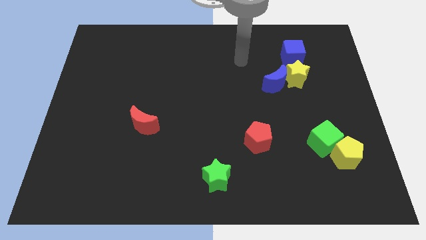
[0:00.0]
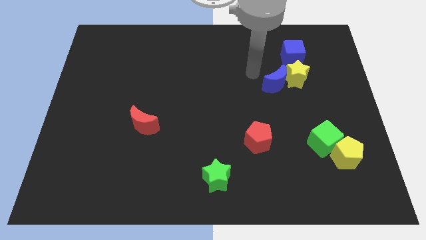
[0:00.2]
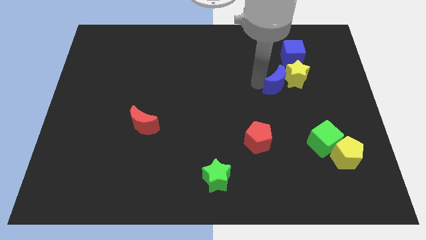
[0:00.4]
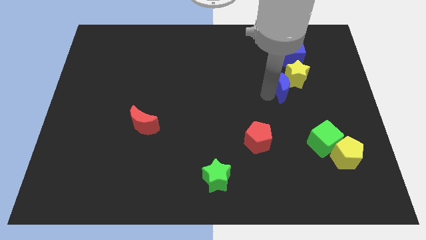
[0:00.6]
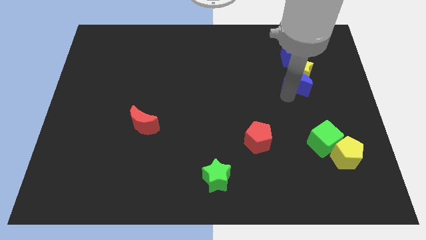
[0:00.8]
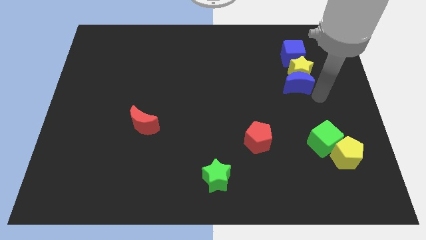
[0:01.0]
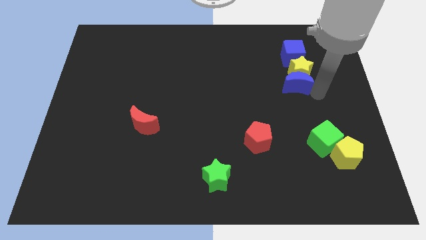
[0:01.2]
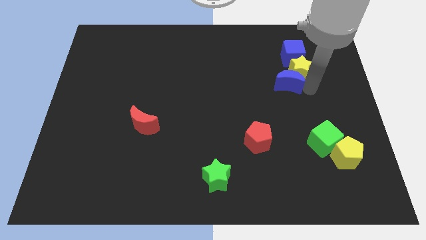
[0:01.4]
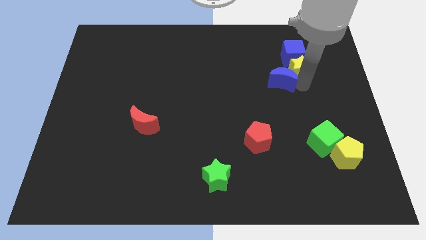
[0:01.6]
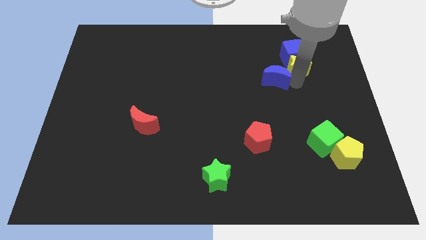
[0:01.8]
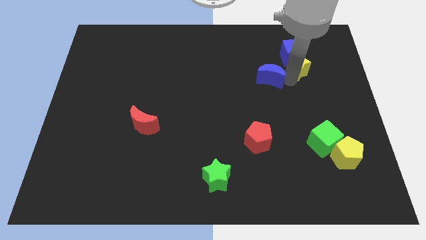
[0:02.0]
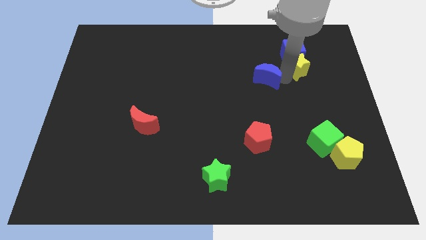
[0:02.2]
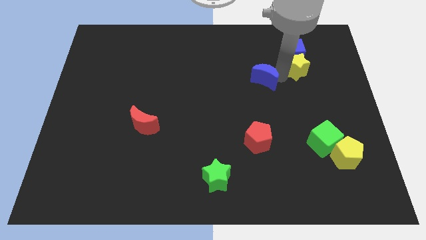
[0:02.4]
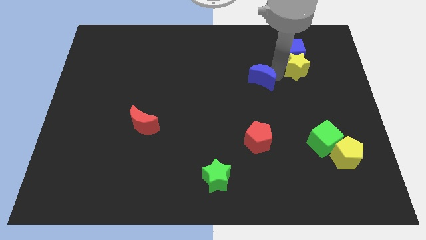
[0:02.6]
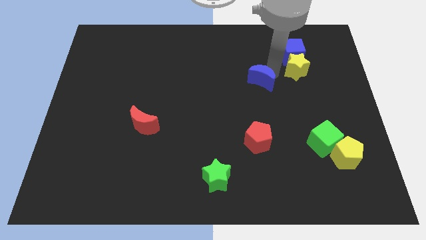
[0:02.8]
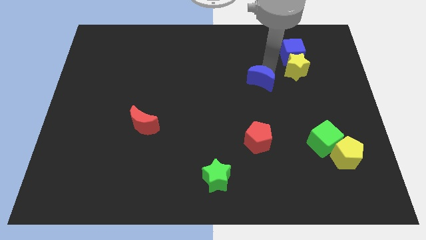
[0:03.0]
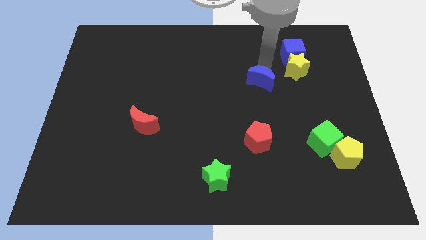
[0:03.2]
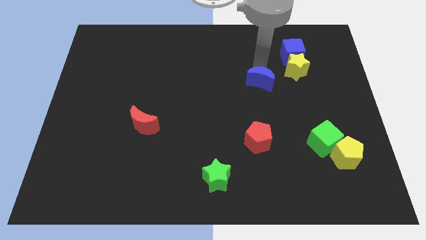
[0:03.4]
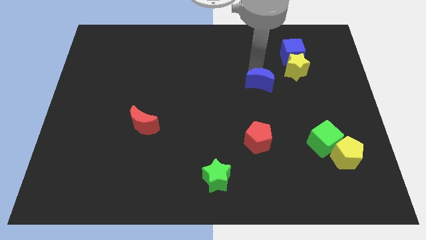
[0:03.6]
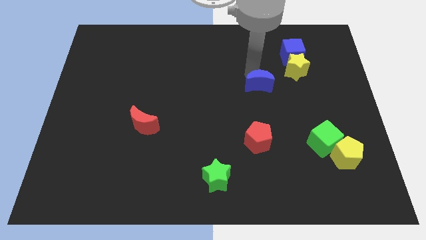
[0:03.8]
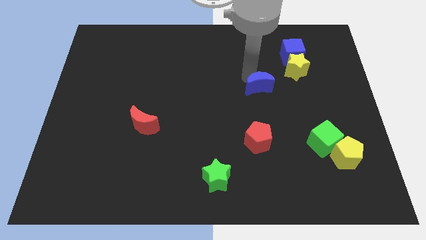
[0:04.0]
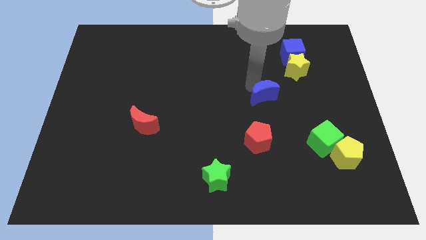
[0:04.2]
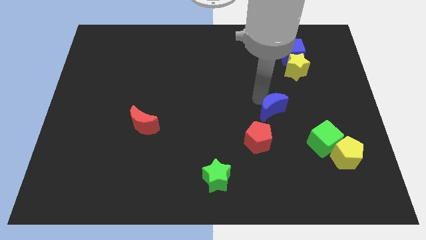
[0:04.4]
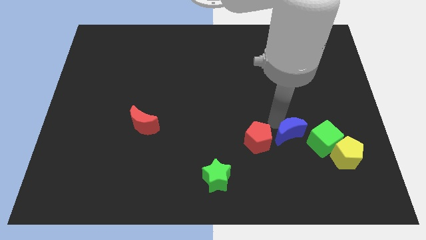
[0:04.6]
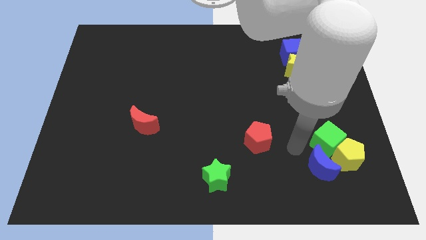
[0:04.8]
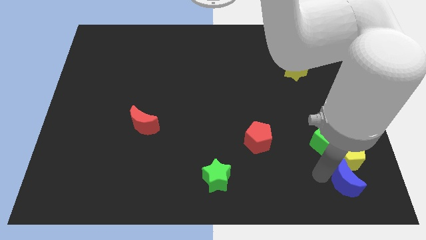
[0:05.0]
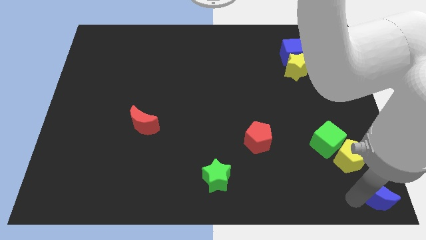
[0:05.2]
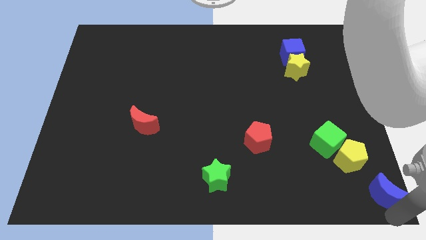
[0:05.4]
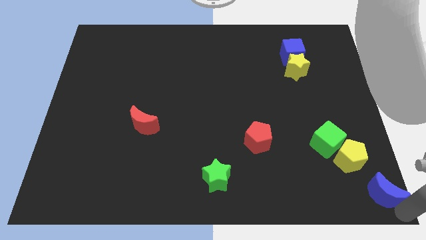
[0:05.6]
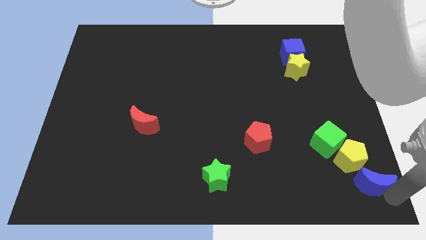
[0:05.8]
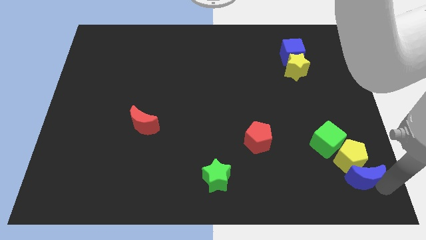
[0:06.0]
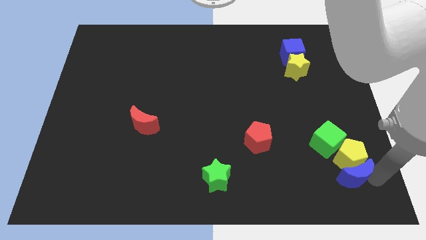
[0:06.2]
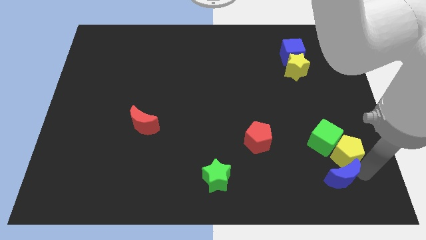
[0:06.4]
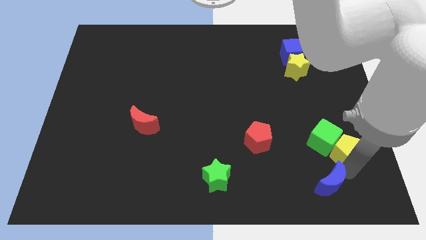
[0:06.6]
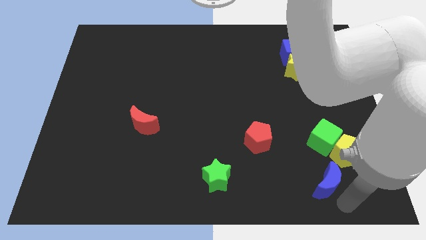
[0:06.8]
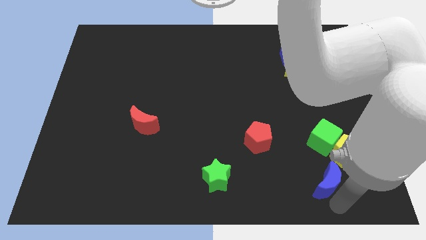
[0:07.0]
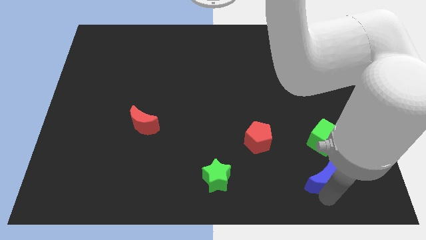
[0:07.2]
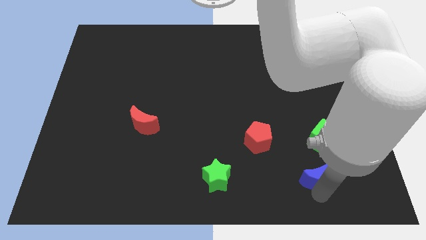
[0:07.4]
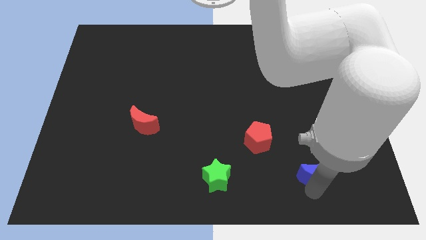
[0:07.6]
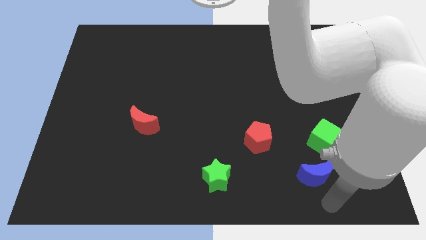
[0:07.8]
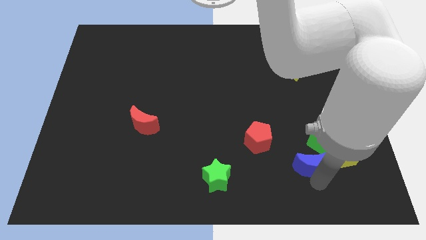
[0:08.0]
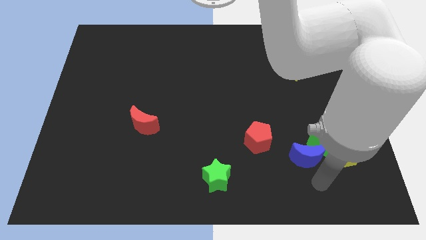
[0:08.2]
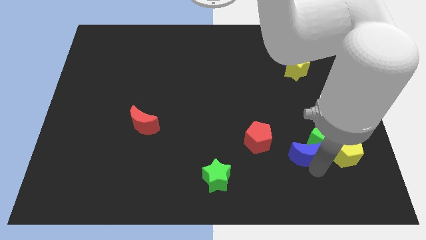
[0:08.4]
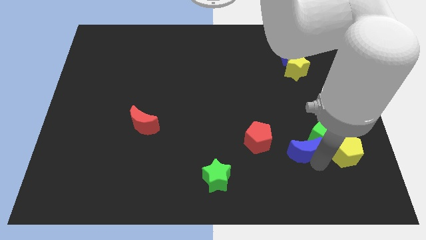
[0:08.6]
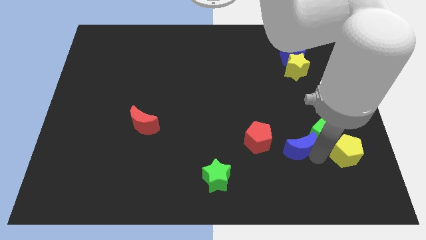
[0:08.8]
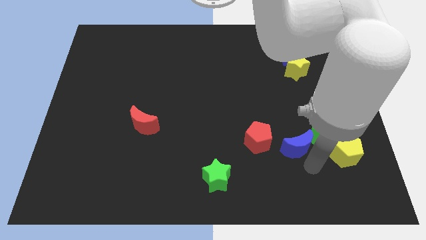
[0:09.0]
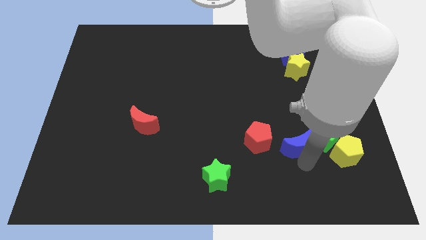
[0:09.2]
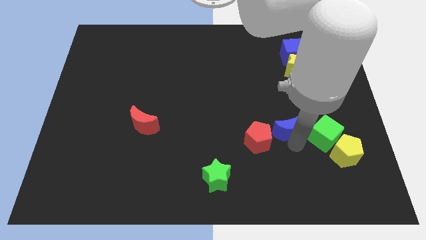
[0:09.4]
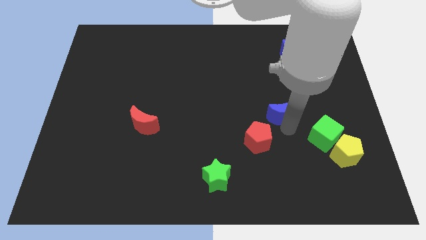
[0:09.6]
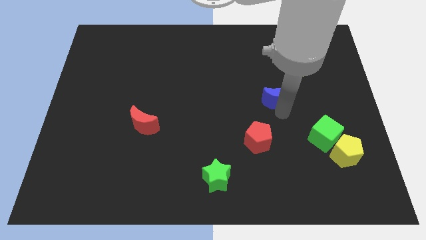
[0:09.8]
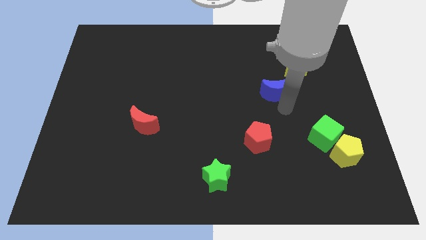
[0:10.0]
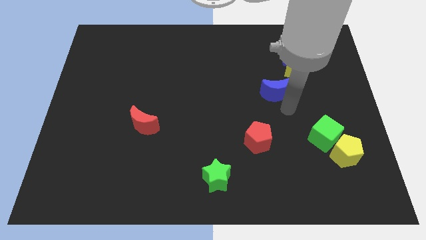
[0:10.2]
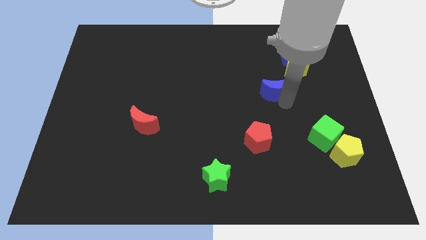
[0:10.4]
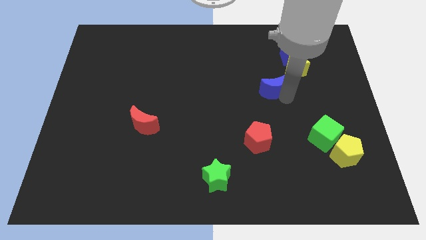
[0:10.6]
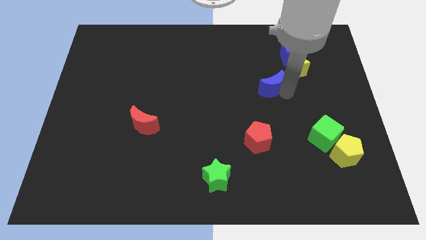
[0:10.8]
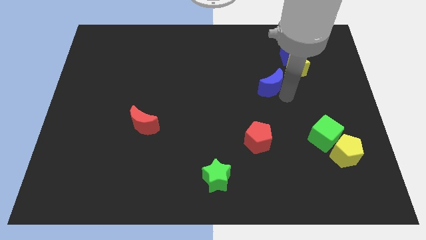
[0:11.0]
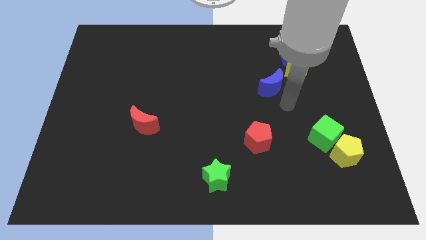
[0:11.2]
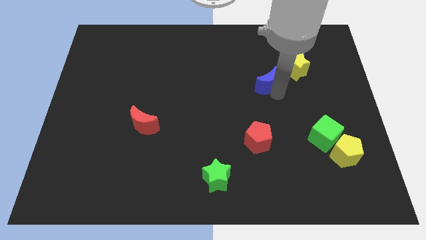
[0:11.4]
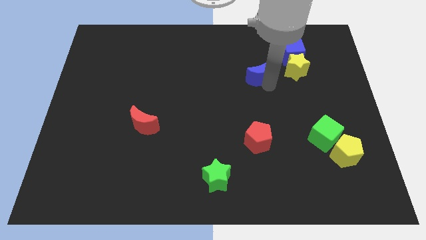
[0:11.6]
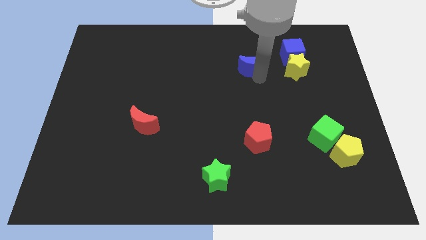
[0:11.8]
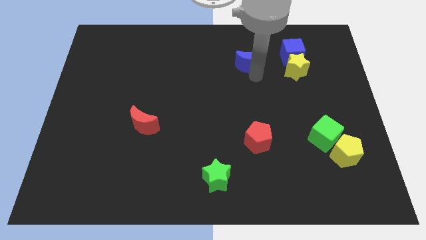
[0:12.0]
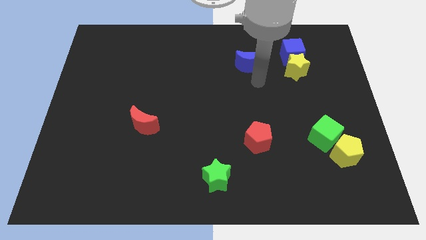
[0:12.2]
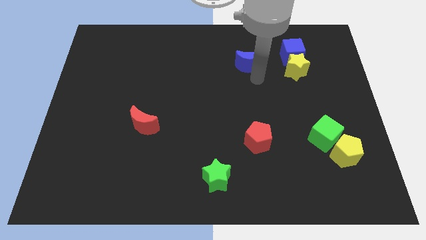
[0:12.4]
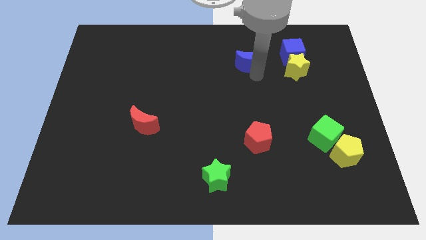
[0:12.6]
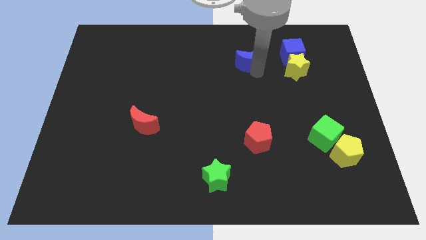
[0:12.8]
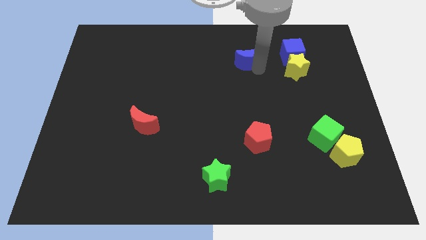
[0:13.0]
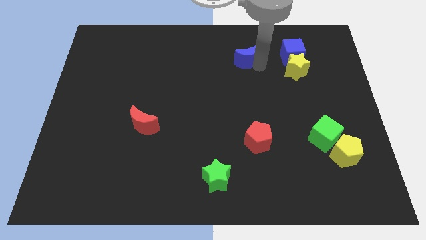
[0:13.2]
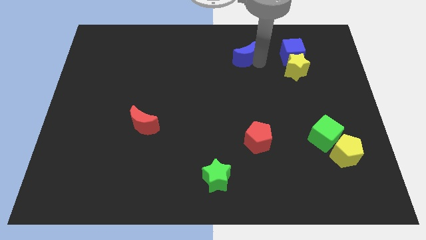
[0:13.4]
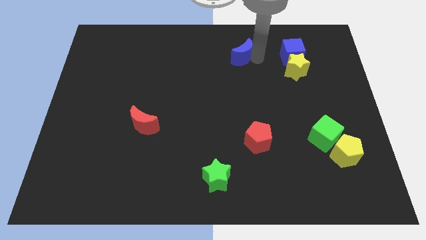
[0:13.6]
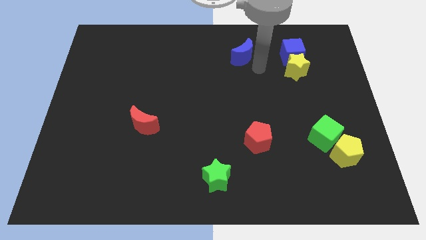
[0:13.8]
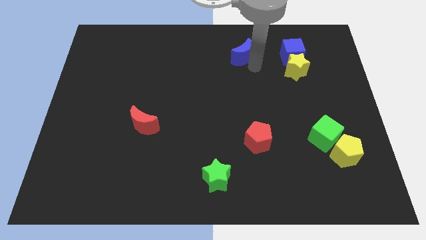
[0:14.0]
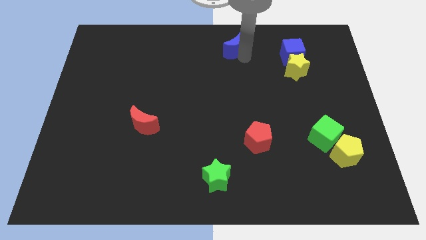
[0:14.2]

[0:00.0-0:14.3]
slide the blue moon to the top side
